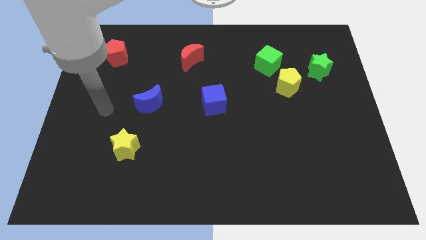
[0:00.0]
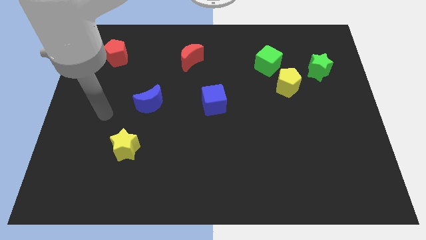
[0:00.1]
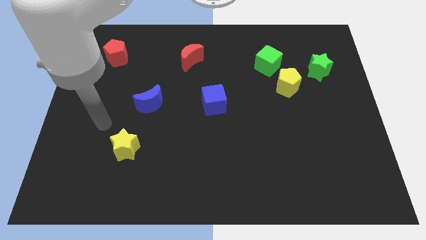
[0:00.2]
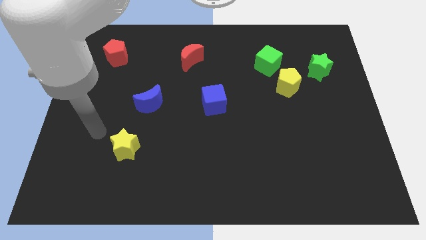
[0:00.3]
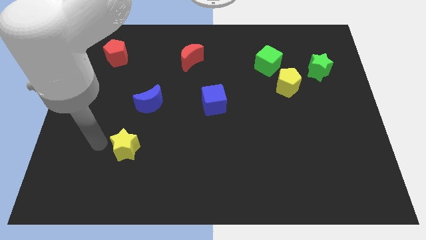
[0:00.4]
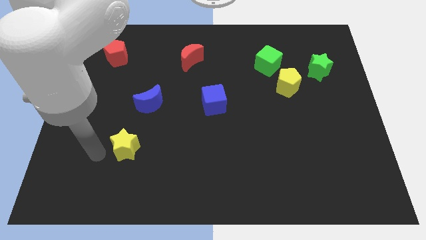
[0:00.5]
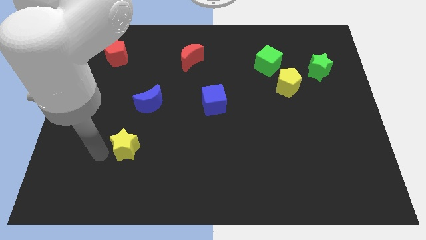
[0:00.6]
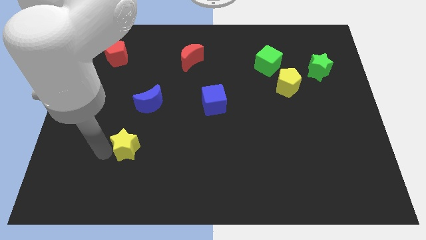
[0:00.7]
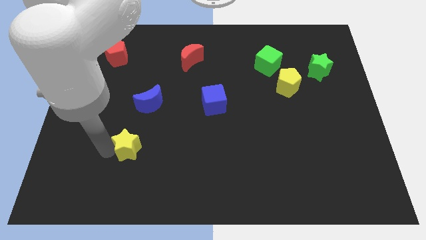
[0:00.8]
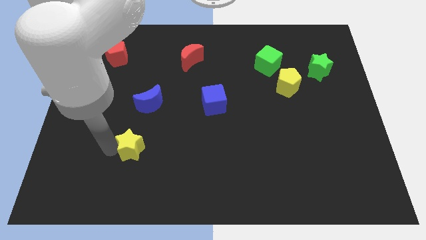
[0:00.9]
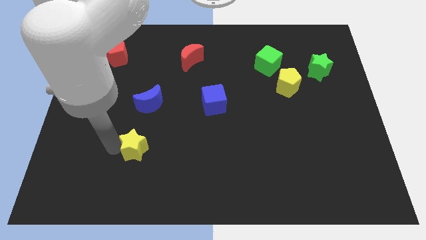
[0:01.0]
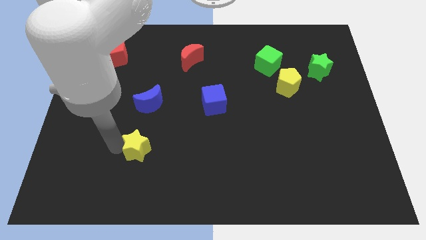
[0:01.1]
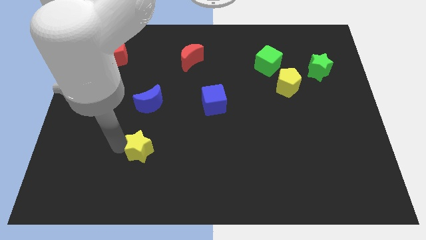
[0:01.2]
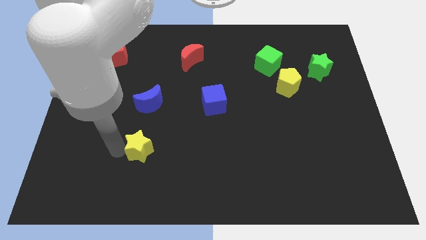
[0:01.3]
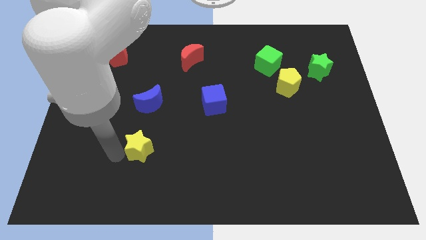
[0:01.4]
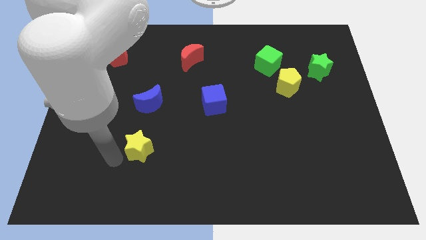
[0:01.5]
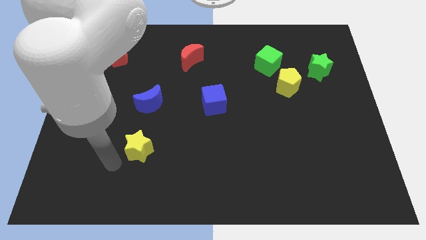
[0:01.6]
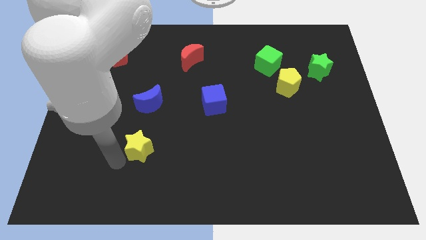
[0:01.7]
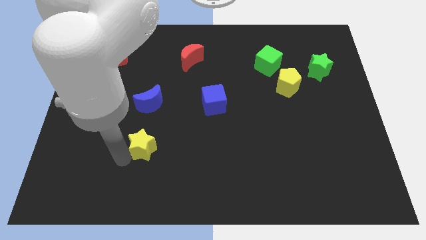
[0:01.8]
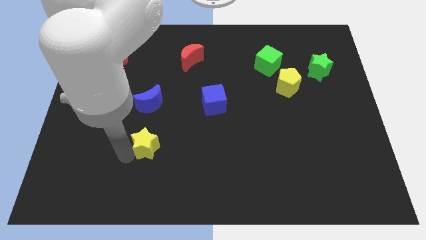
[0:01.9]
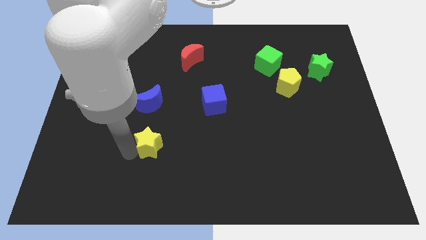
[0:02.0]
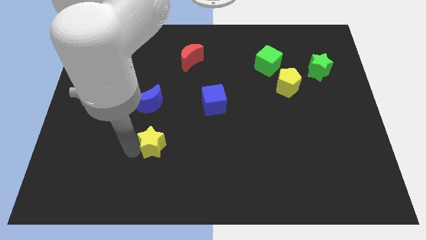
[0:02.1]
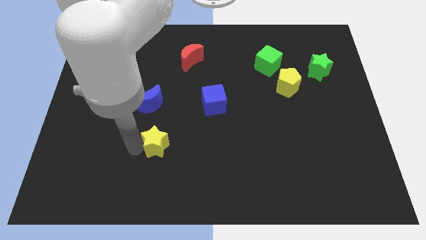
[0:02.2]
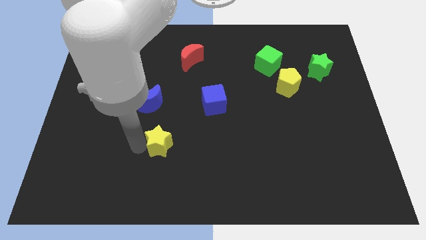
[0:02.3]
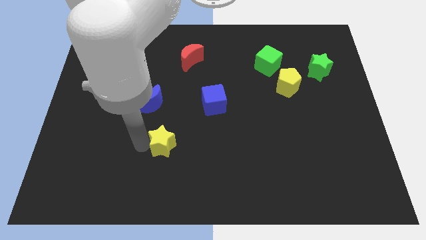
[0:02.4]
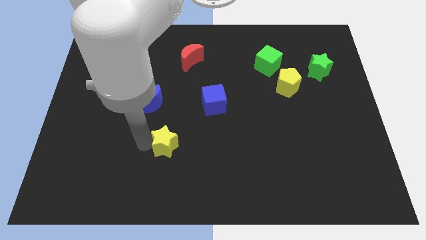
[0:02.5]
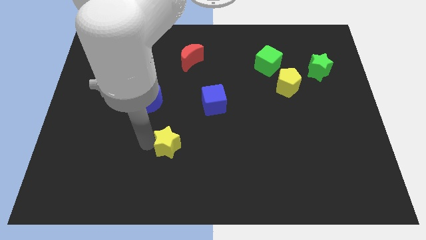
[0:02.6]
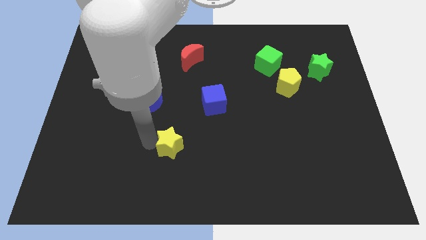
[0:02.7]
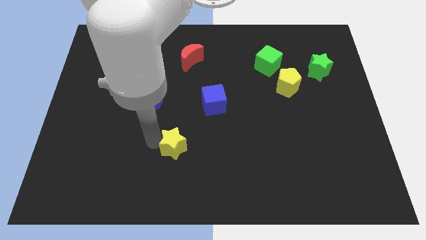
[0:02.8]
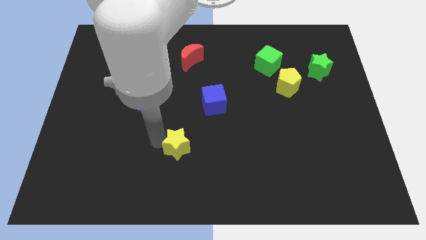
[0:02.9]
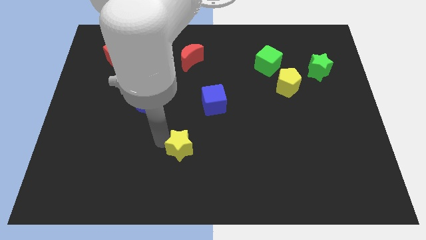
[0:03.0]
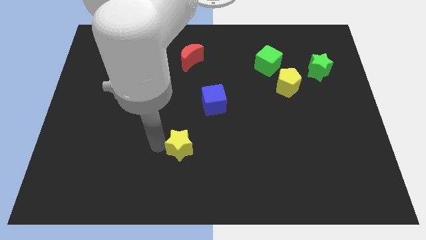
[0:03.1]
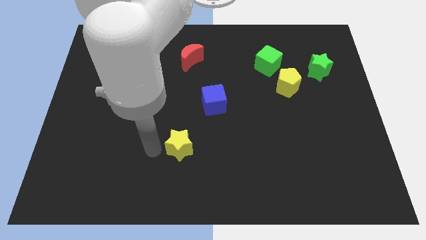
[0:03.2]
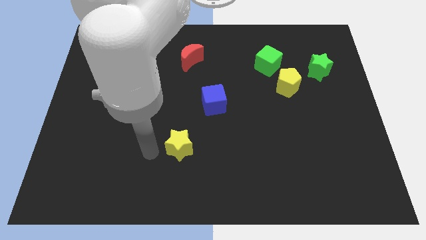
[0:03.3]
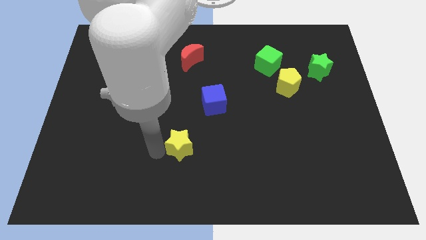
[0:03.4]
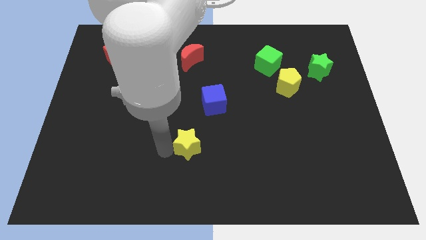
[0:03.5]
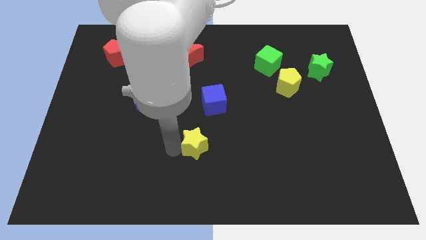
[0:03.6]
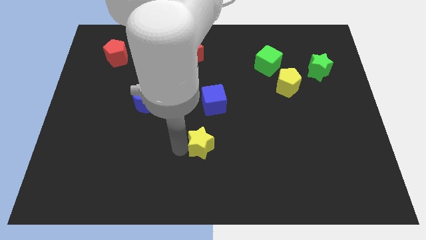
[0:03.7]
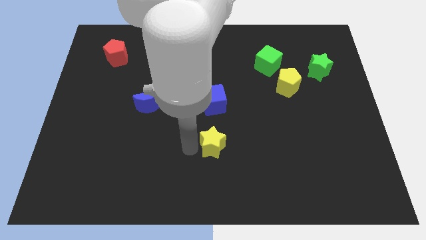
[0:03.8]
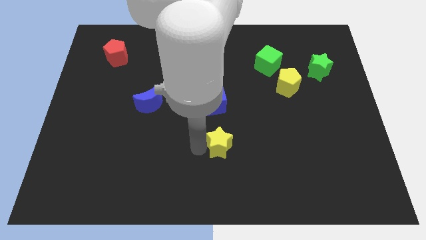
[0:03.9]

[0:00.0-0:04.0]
push the yellow star right

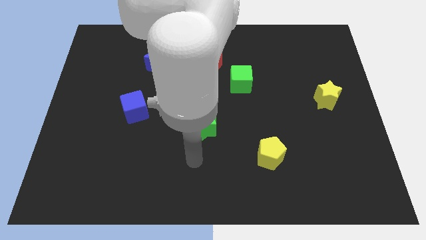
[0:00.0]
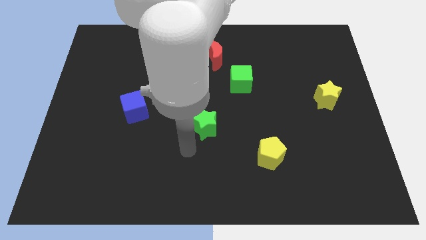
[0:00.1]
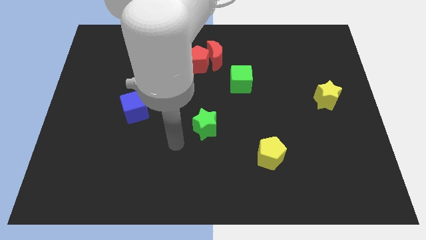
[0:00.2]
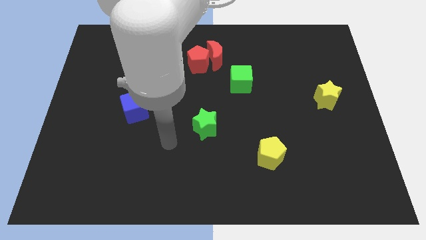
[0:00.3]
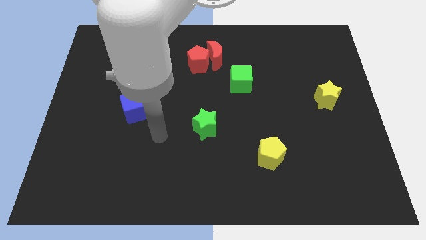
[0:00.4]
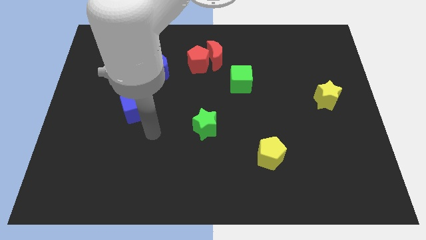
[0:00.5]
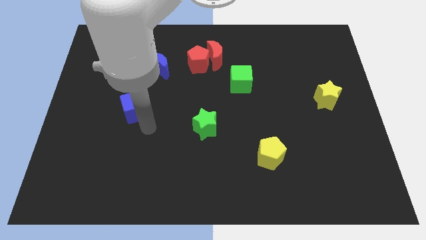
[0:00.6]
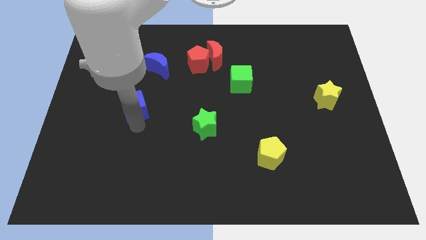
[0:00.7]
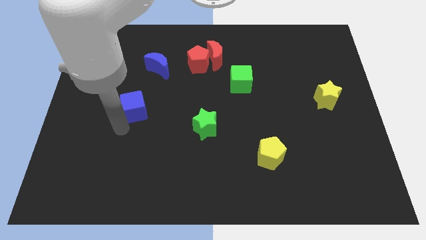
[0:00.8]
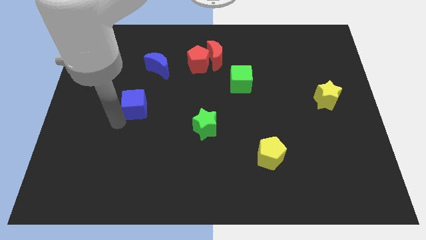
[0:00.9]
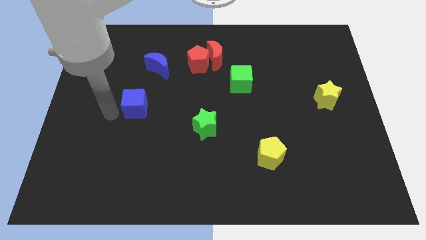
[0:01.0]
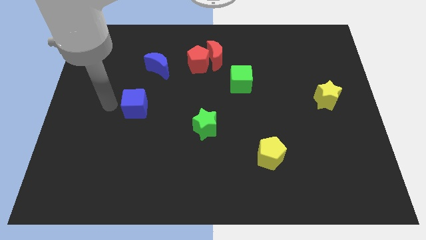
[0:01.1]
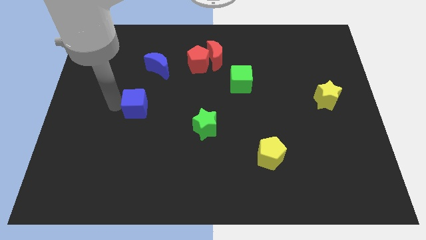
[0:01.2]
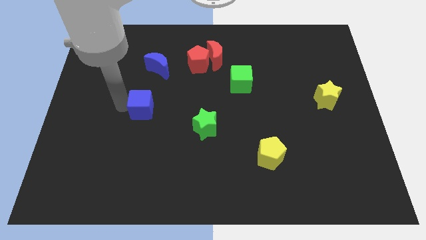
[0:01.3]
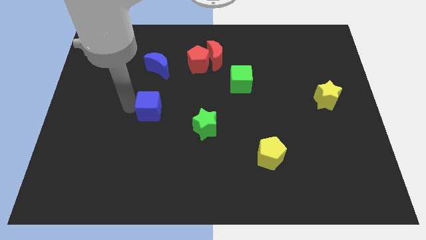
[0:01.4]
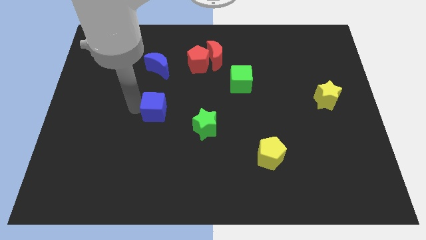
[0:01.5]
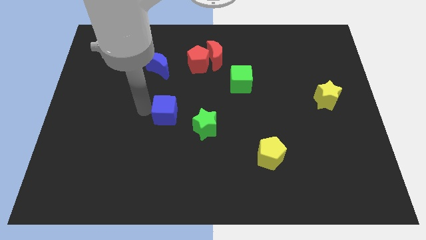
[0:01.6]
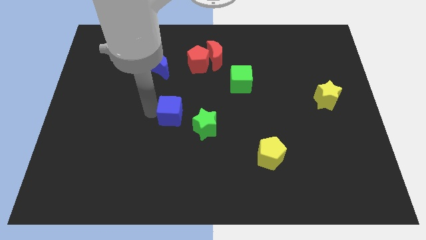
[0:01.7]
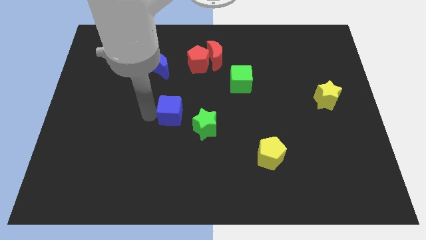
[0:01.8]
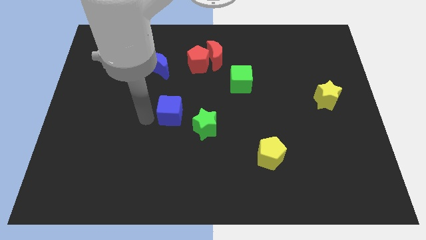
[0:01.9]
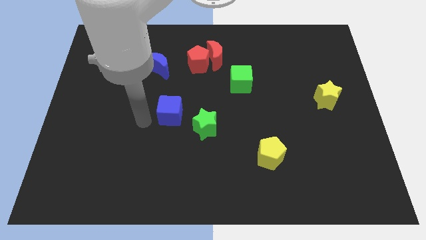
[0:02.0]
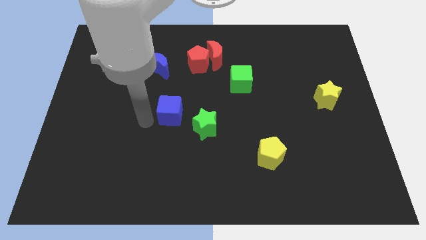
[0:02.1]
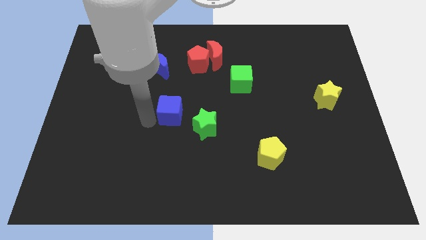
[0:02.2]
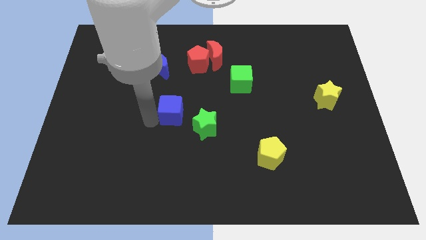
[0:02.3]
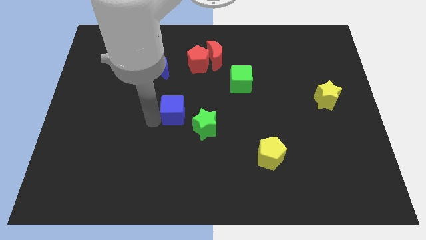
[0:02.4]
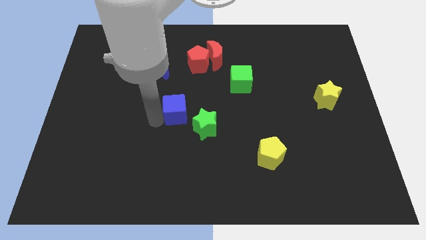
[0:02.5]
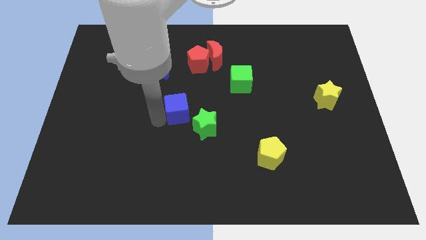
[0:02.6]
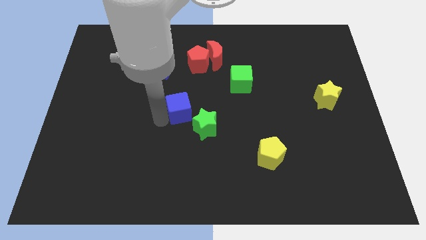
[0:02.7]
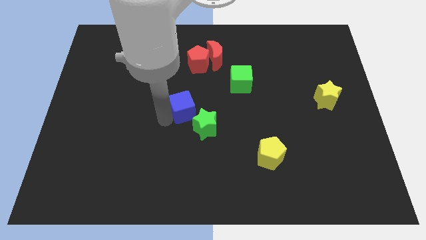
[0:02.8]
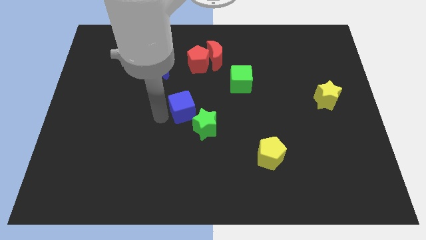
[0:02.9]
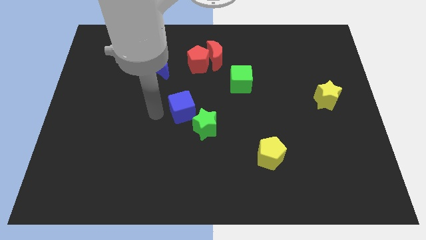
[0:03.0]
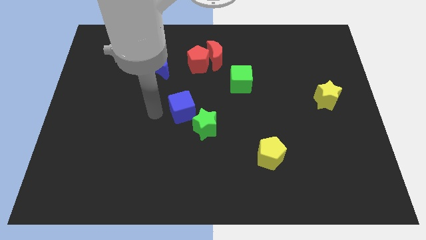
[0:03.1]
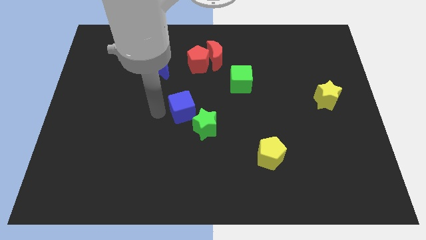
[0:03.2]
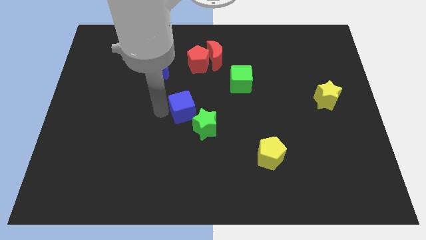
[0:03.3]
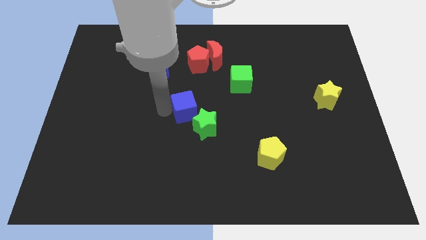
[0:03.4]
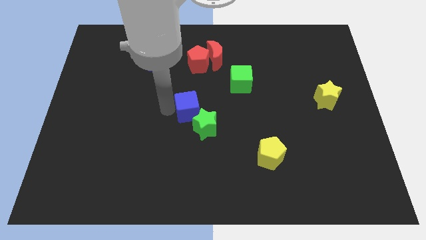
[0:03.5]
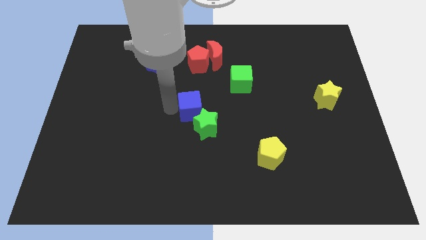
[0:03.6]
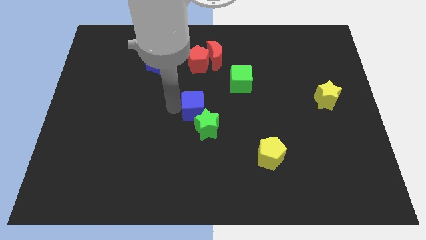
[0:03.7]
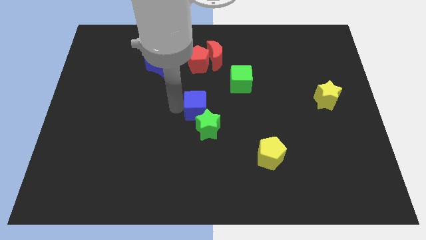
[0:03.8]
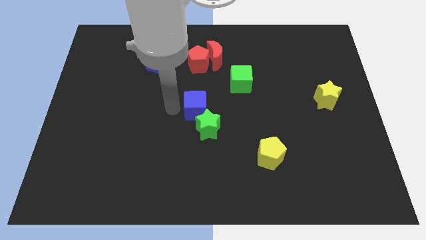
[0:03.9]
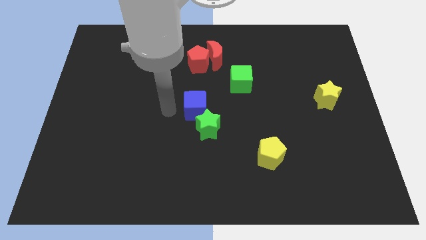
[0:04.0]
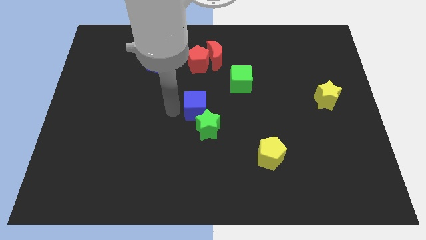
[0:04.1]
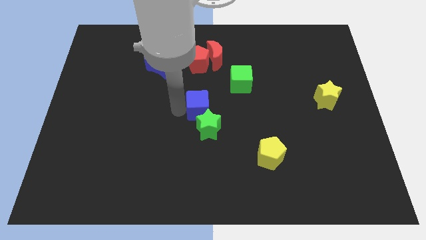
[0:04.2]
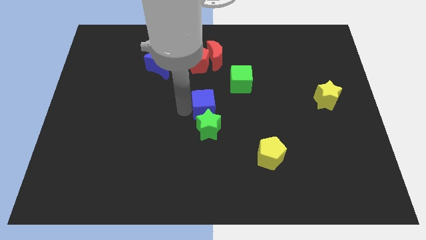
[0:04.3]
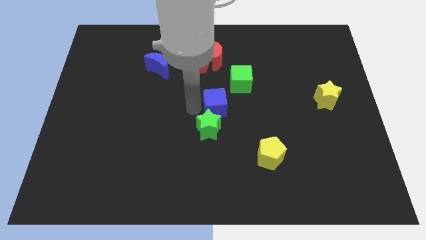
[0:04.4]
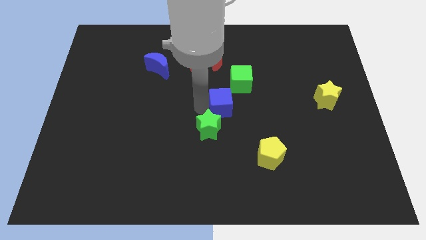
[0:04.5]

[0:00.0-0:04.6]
slide the blue cube right
